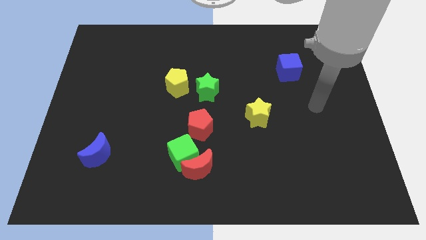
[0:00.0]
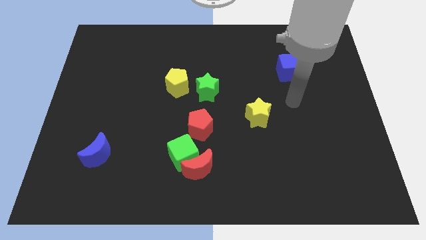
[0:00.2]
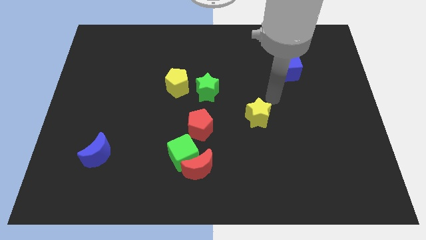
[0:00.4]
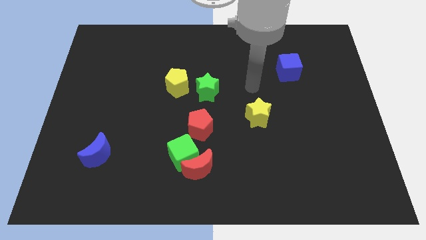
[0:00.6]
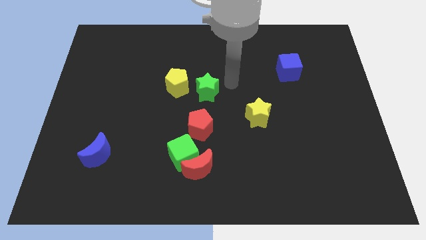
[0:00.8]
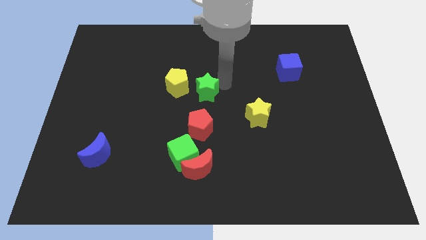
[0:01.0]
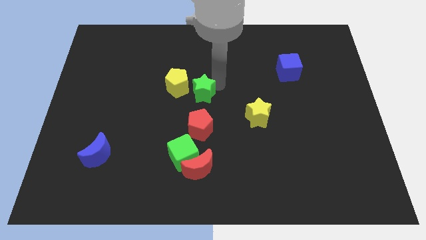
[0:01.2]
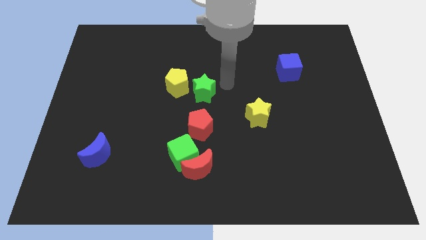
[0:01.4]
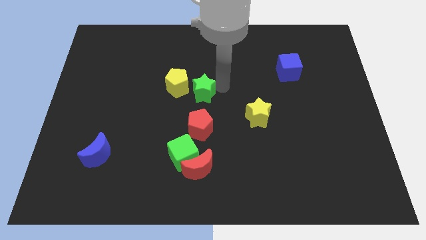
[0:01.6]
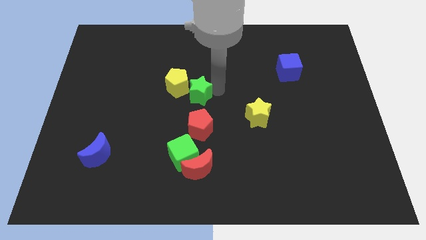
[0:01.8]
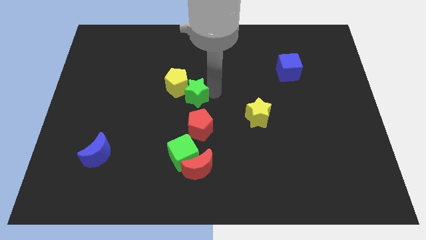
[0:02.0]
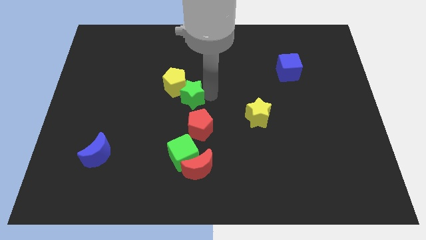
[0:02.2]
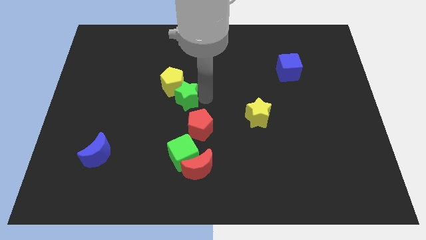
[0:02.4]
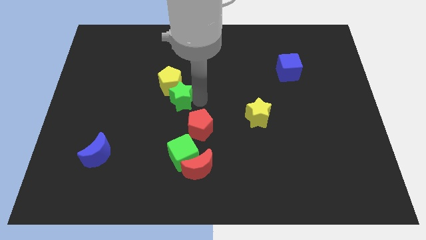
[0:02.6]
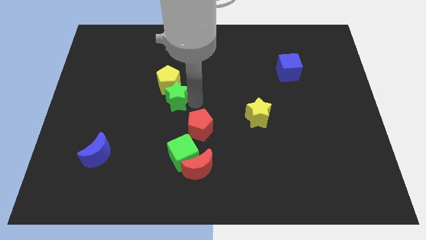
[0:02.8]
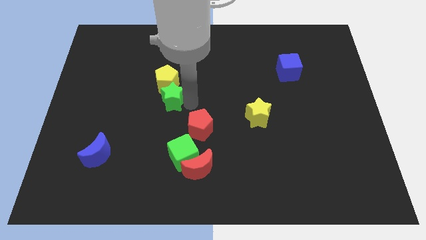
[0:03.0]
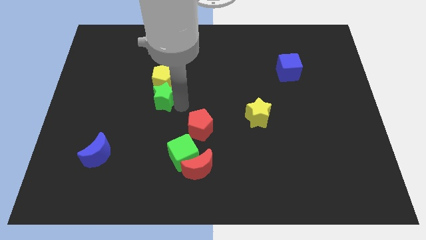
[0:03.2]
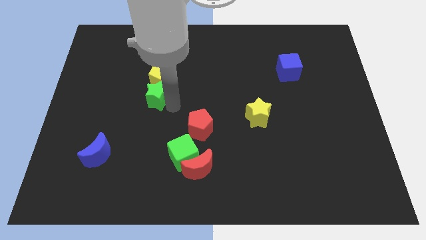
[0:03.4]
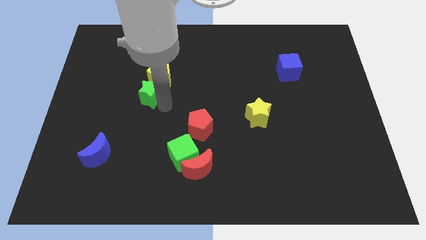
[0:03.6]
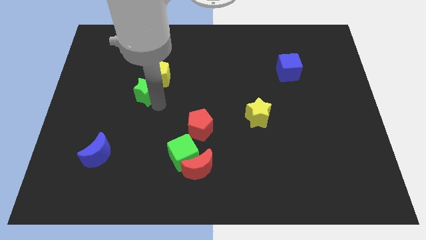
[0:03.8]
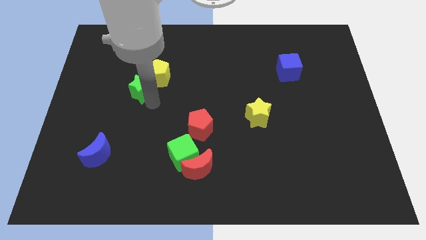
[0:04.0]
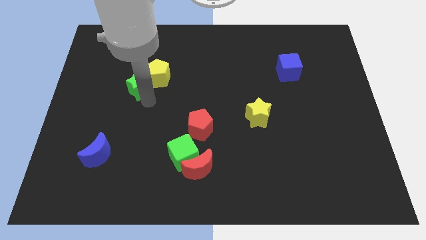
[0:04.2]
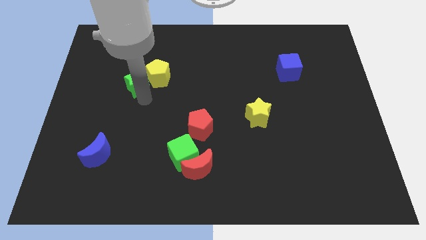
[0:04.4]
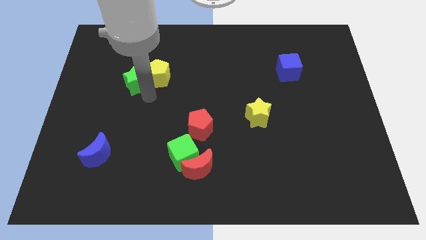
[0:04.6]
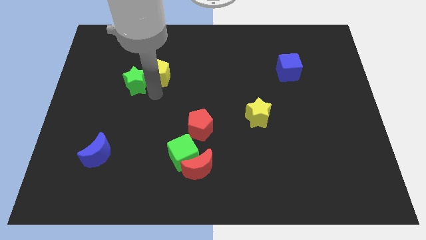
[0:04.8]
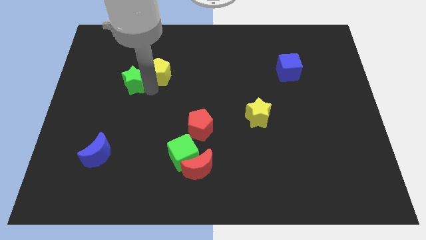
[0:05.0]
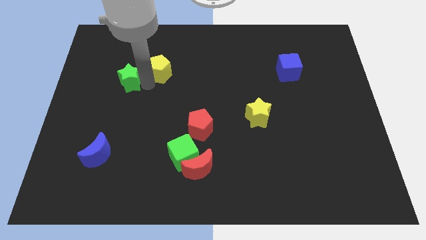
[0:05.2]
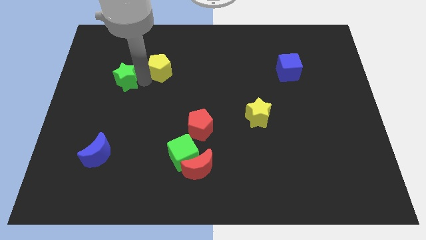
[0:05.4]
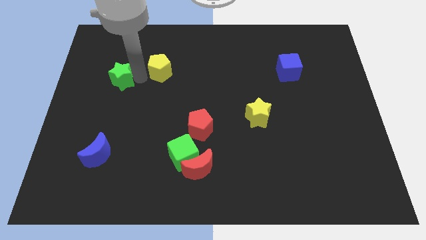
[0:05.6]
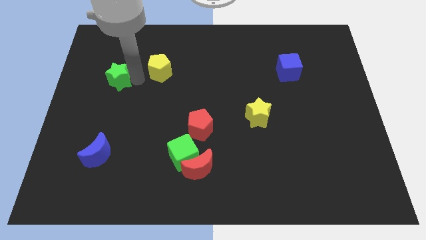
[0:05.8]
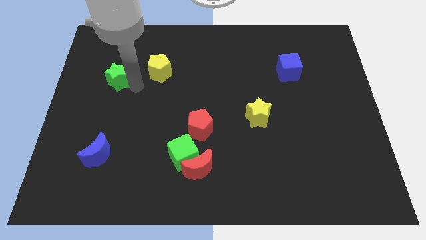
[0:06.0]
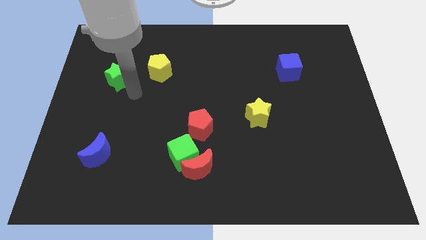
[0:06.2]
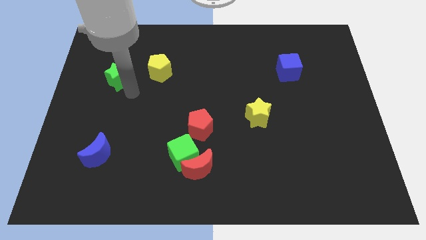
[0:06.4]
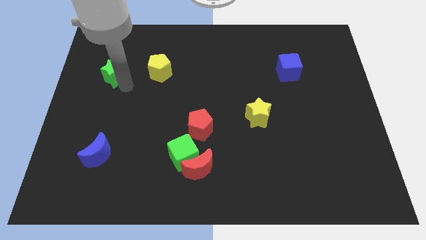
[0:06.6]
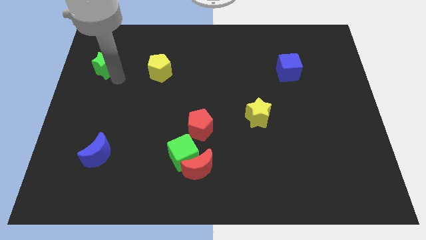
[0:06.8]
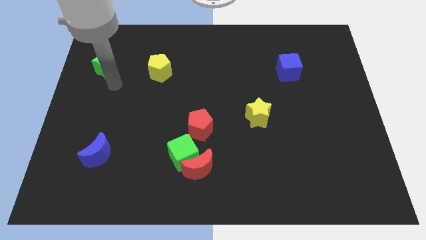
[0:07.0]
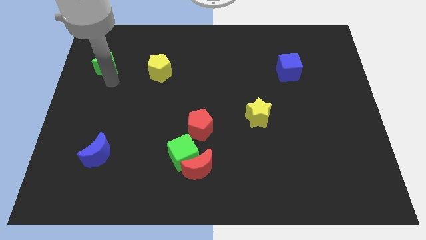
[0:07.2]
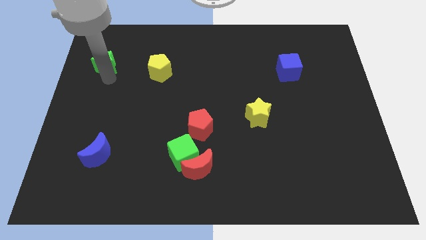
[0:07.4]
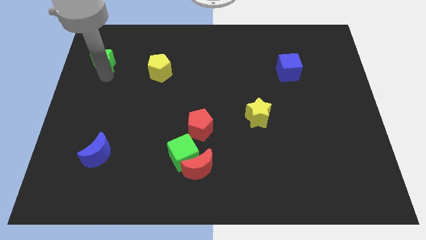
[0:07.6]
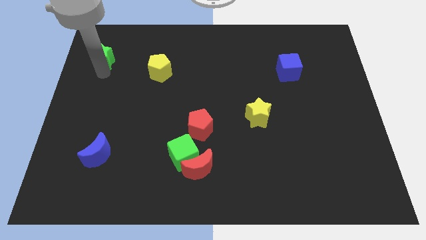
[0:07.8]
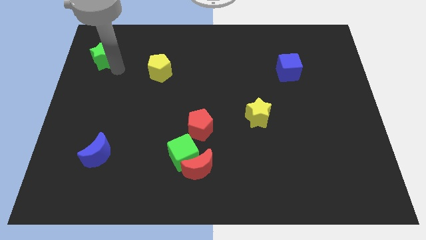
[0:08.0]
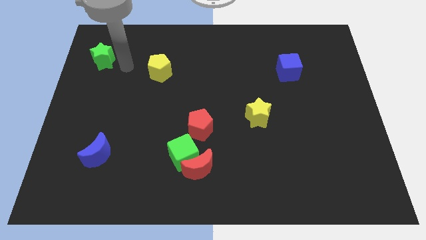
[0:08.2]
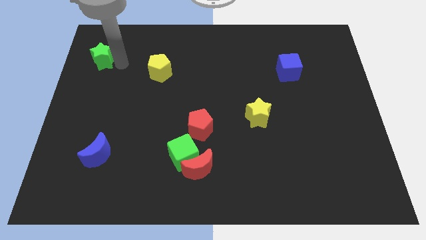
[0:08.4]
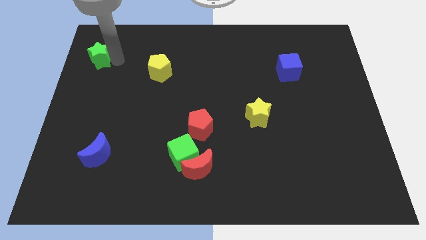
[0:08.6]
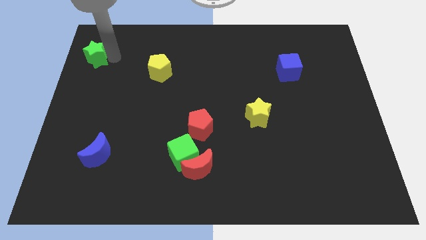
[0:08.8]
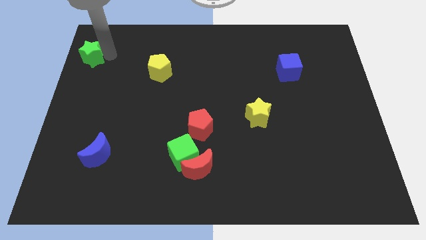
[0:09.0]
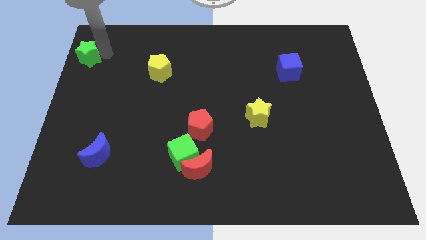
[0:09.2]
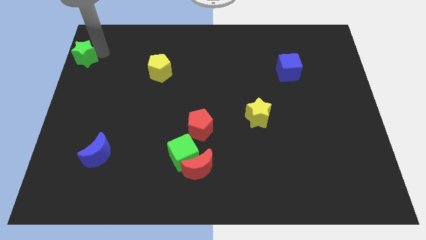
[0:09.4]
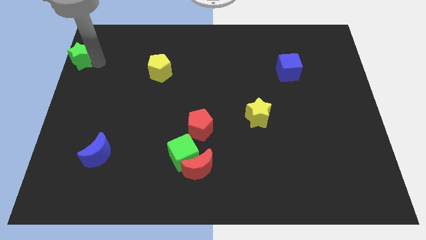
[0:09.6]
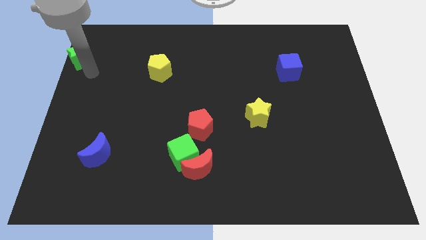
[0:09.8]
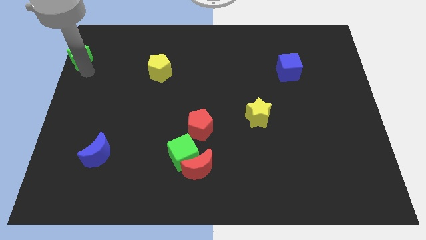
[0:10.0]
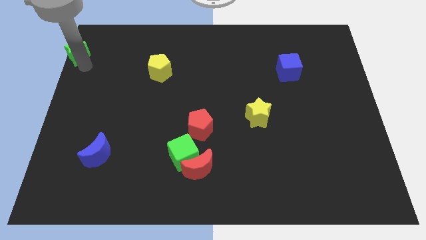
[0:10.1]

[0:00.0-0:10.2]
move the green star to the top left of the board

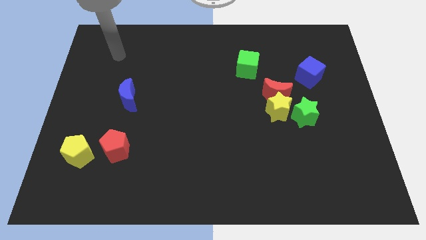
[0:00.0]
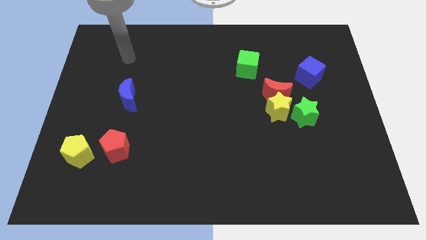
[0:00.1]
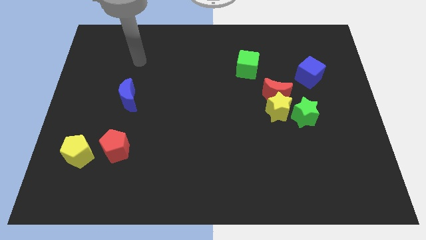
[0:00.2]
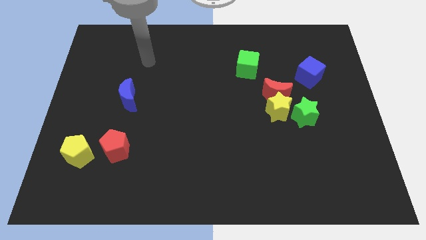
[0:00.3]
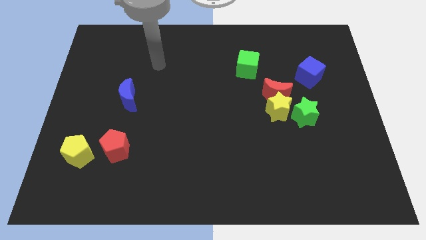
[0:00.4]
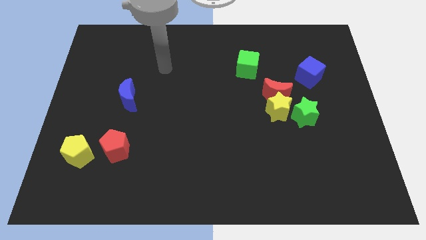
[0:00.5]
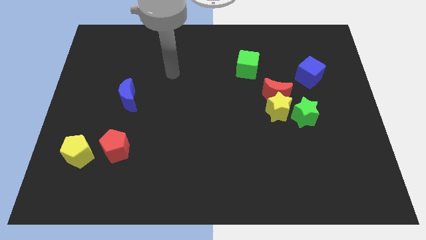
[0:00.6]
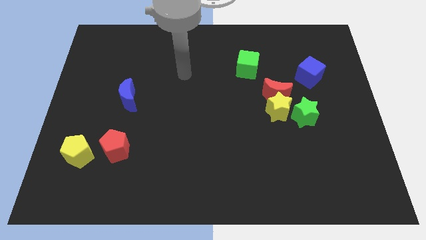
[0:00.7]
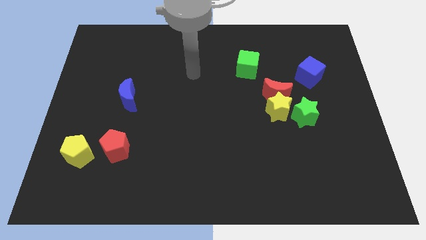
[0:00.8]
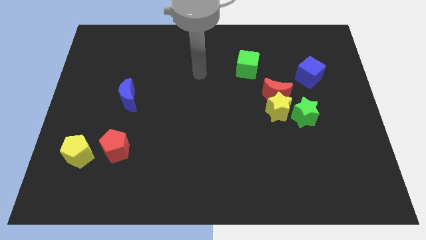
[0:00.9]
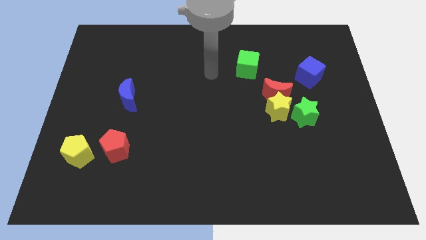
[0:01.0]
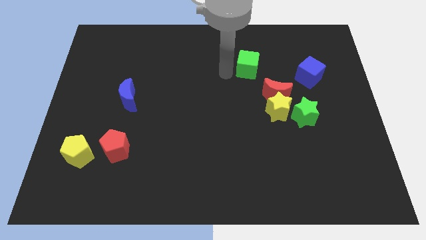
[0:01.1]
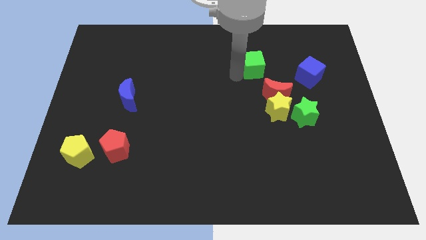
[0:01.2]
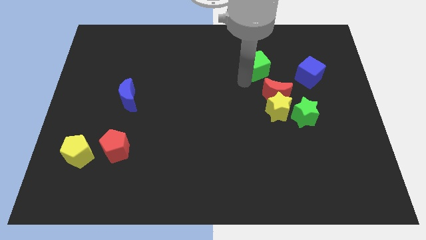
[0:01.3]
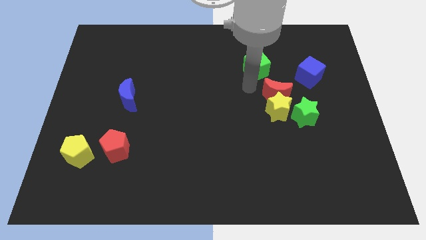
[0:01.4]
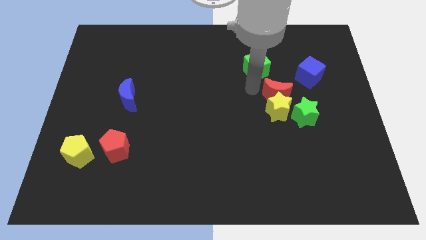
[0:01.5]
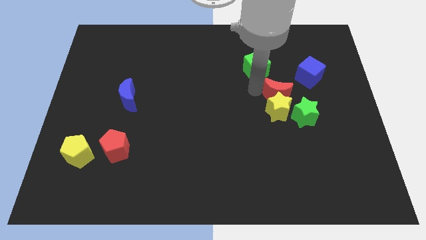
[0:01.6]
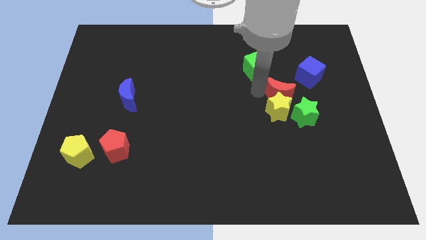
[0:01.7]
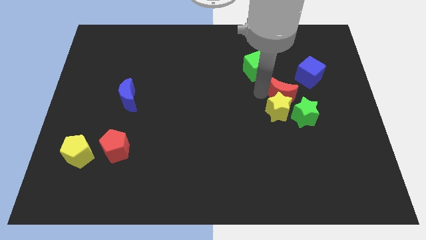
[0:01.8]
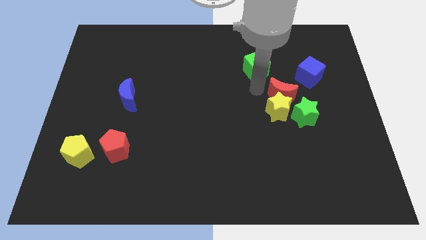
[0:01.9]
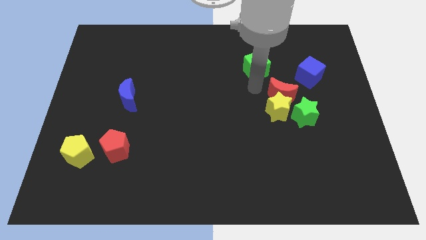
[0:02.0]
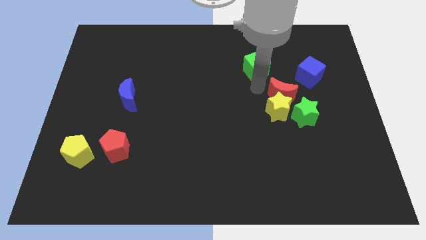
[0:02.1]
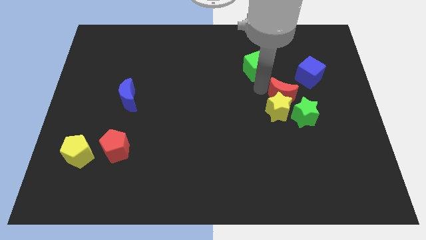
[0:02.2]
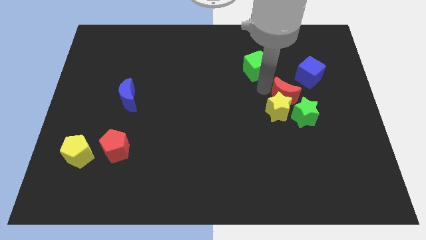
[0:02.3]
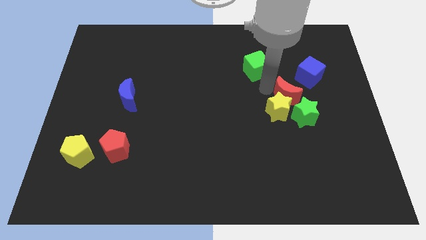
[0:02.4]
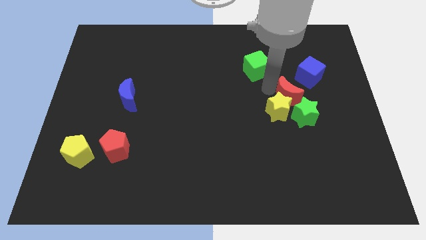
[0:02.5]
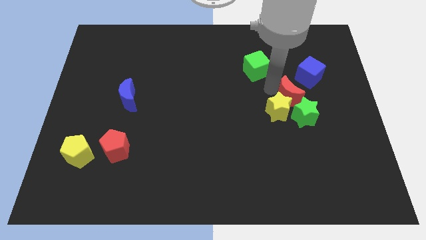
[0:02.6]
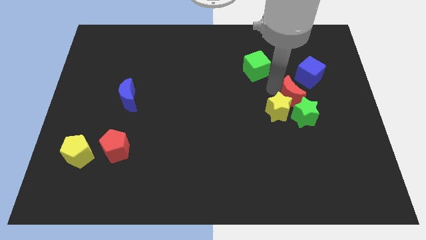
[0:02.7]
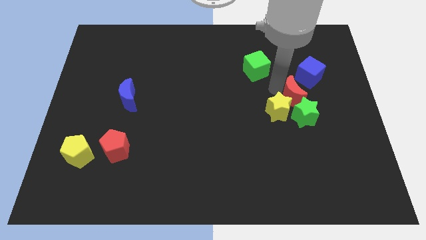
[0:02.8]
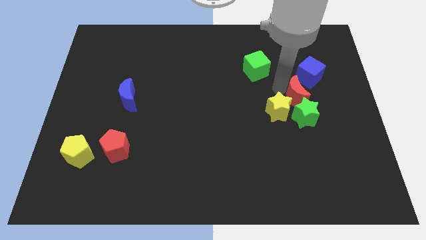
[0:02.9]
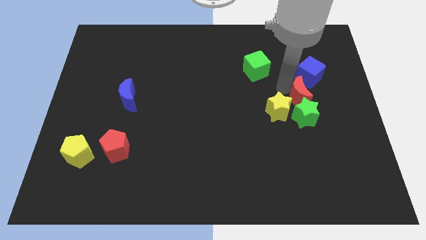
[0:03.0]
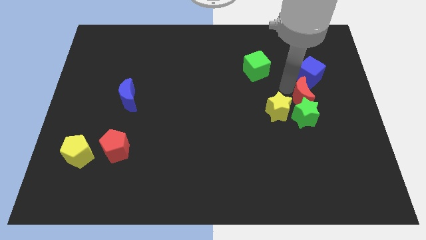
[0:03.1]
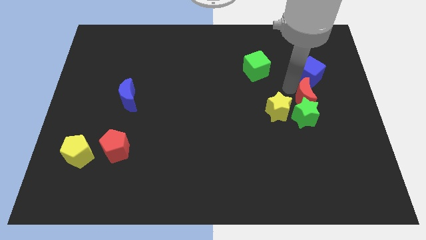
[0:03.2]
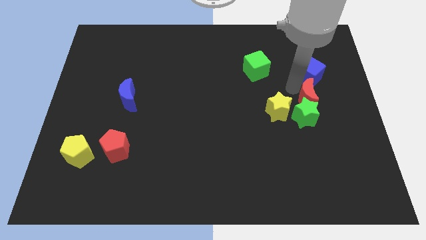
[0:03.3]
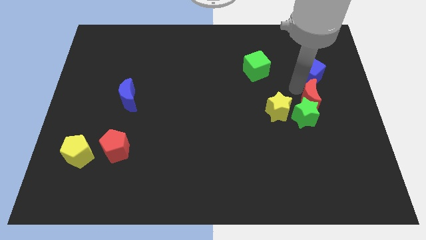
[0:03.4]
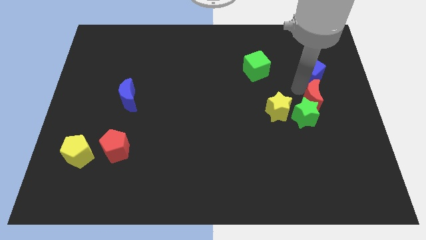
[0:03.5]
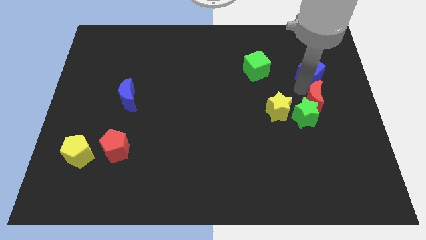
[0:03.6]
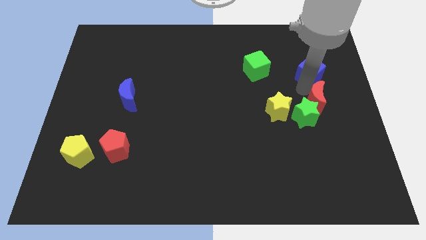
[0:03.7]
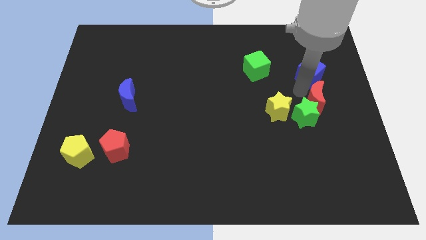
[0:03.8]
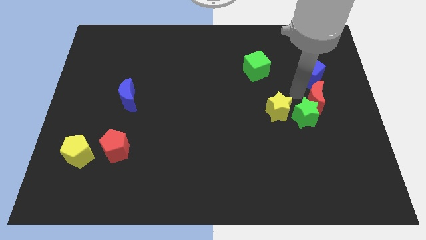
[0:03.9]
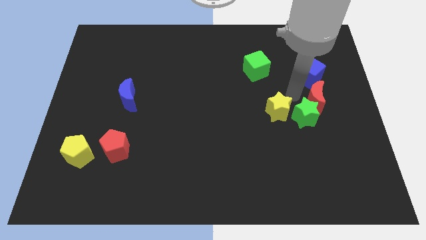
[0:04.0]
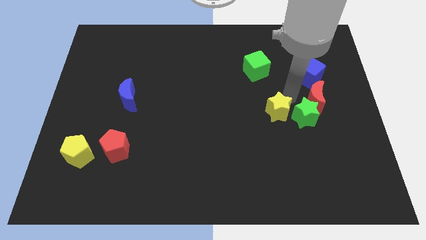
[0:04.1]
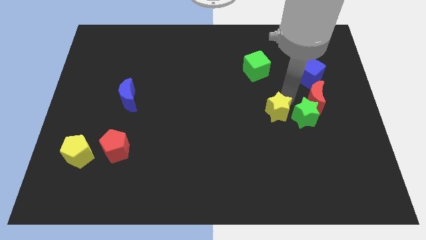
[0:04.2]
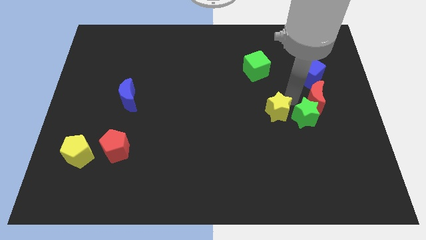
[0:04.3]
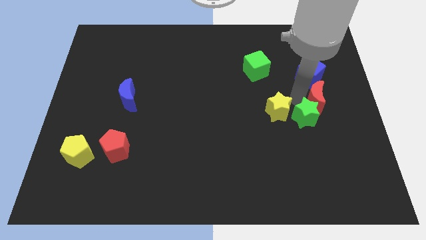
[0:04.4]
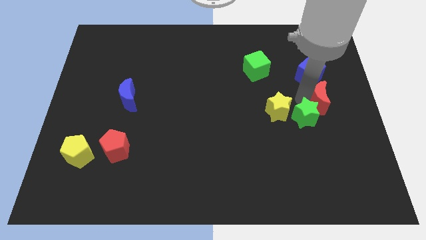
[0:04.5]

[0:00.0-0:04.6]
push the red moon to the center right
